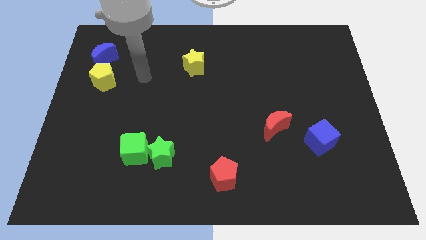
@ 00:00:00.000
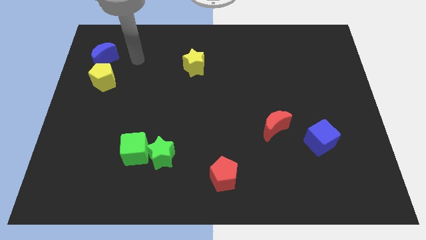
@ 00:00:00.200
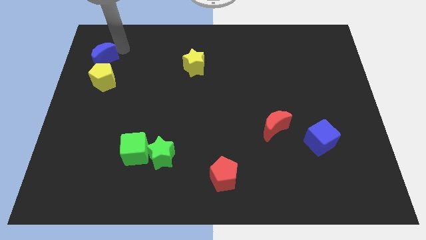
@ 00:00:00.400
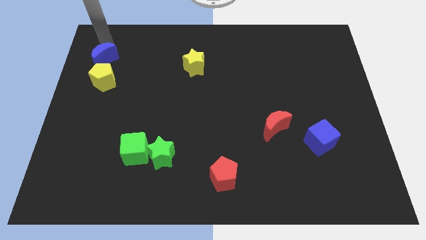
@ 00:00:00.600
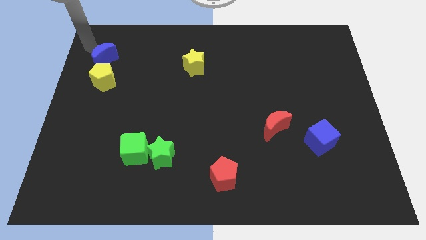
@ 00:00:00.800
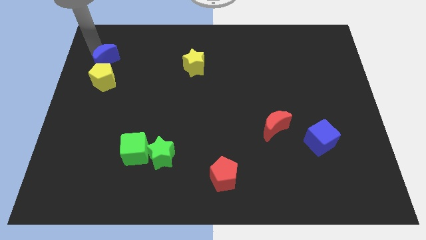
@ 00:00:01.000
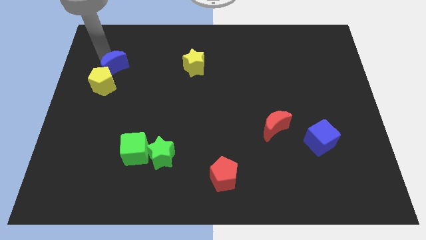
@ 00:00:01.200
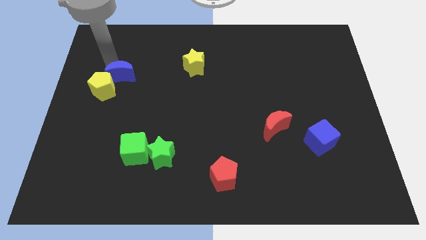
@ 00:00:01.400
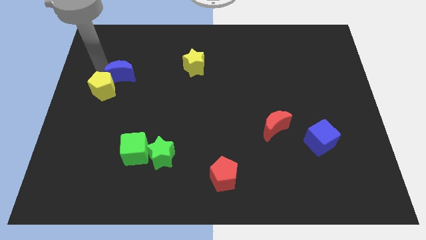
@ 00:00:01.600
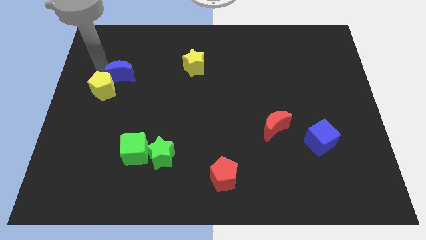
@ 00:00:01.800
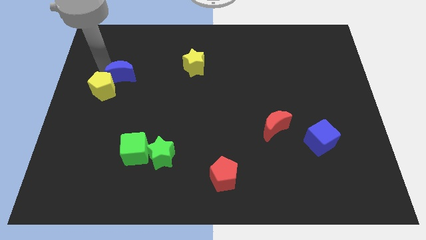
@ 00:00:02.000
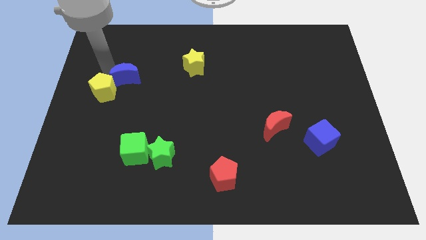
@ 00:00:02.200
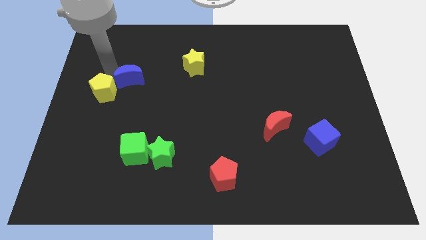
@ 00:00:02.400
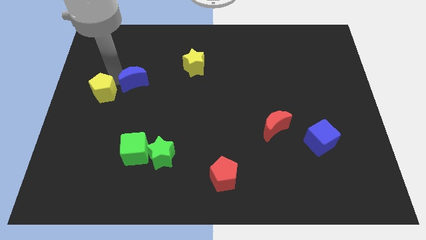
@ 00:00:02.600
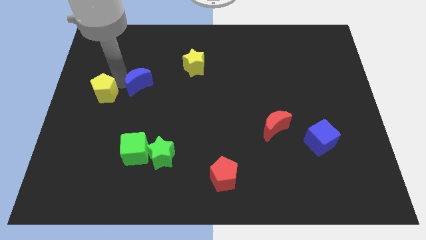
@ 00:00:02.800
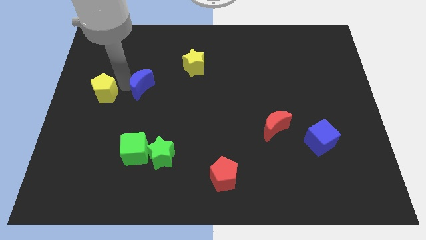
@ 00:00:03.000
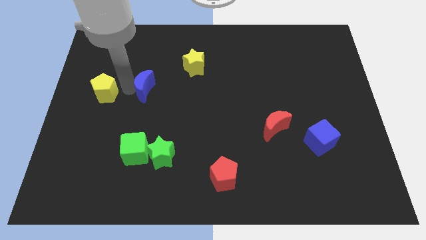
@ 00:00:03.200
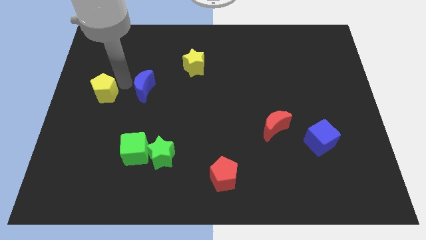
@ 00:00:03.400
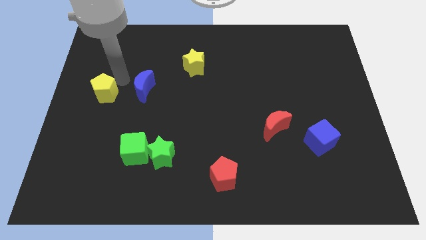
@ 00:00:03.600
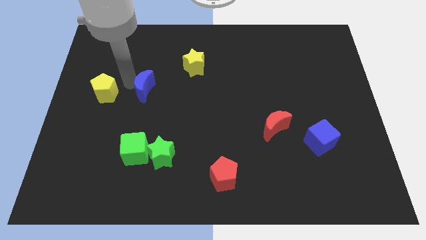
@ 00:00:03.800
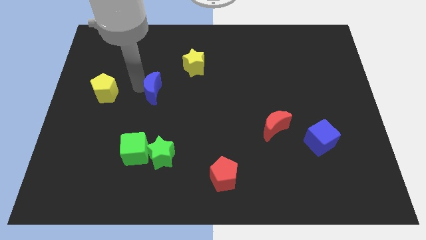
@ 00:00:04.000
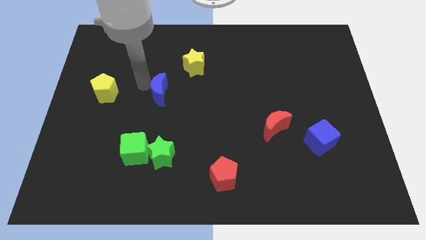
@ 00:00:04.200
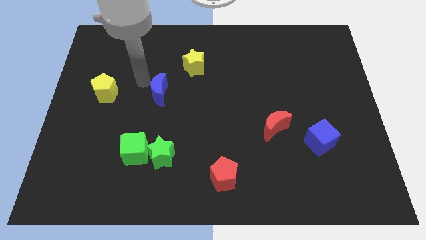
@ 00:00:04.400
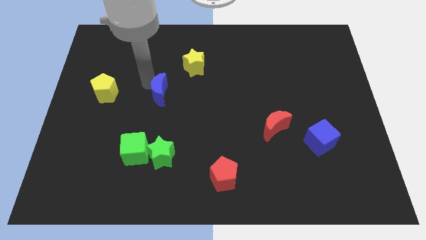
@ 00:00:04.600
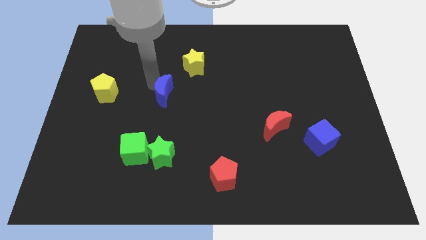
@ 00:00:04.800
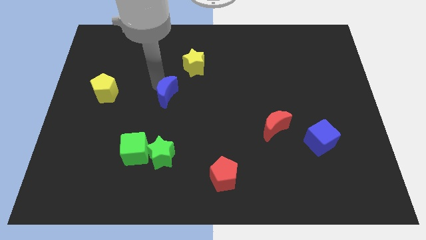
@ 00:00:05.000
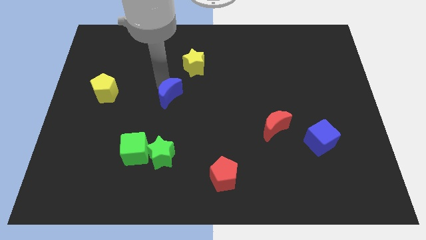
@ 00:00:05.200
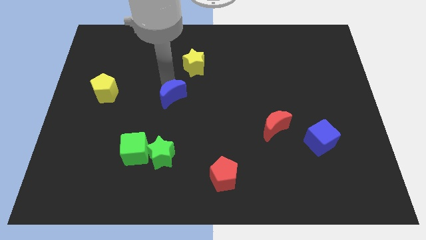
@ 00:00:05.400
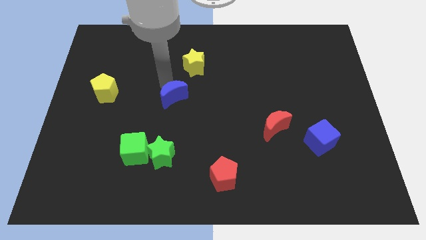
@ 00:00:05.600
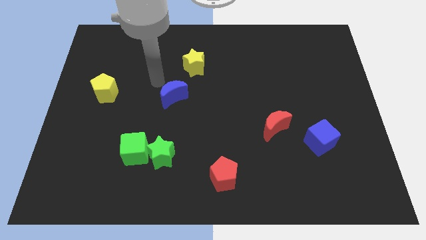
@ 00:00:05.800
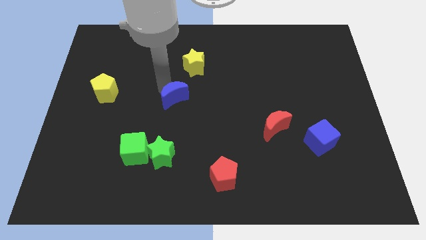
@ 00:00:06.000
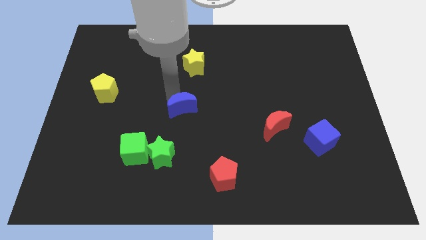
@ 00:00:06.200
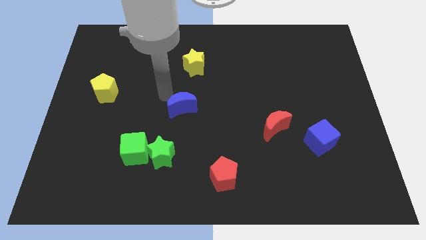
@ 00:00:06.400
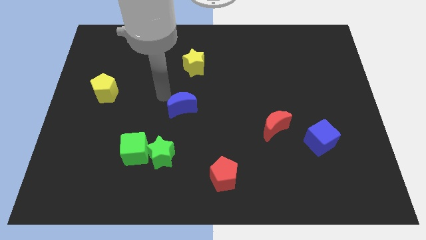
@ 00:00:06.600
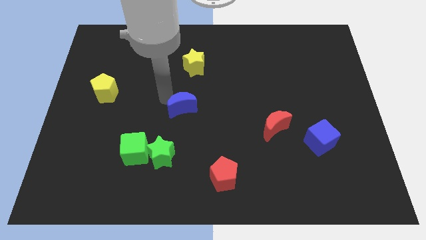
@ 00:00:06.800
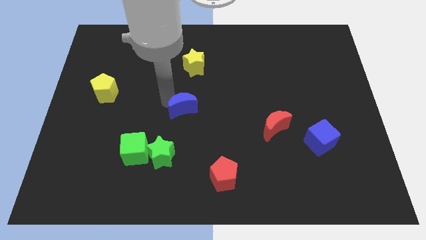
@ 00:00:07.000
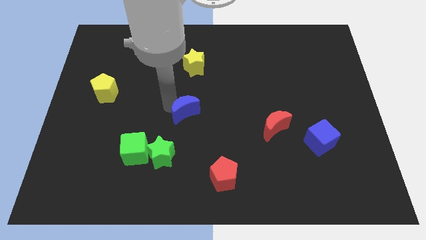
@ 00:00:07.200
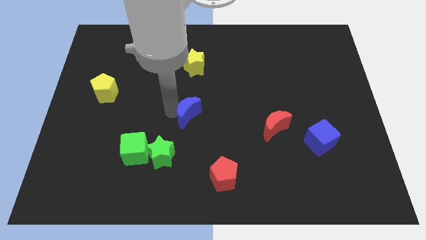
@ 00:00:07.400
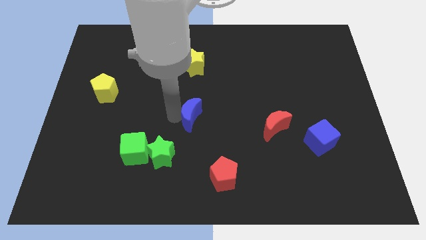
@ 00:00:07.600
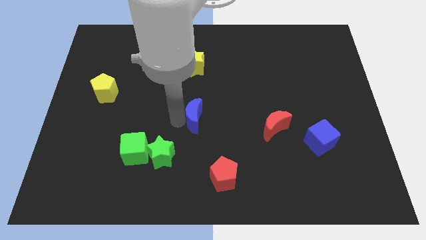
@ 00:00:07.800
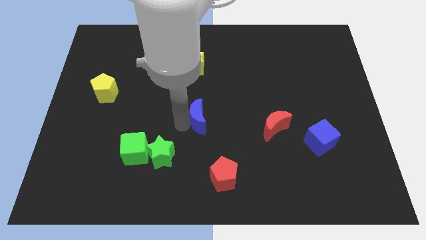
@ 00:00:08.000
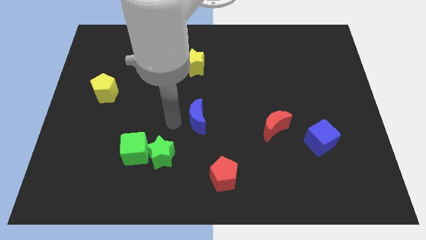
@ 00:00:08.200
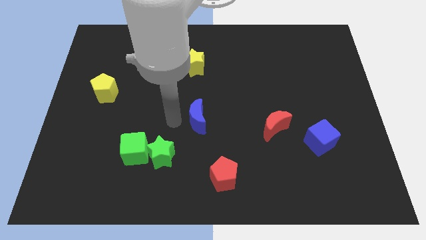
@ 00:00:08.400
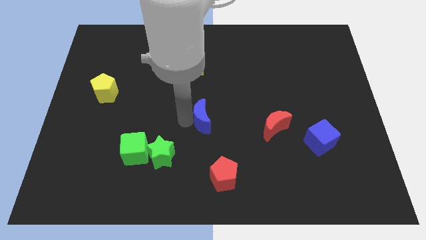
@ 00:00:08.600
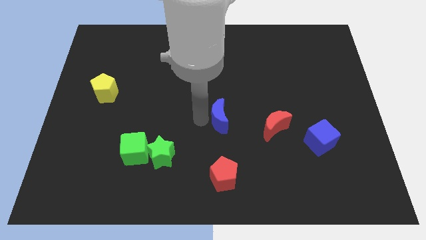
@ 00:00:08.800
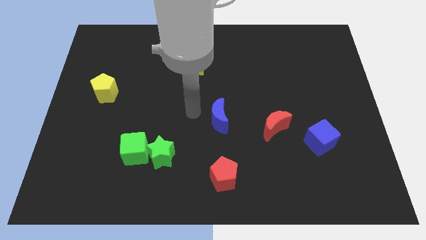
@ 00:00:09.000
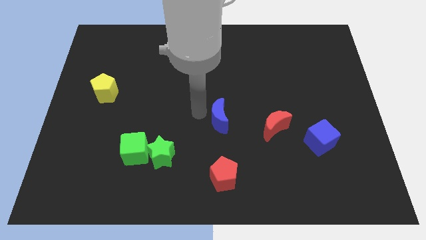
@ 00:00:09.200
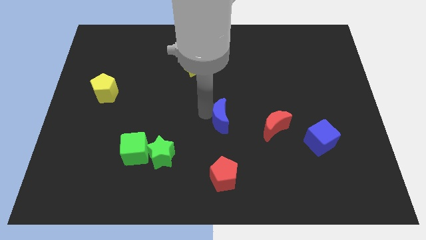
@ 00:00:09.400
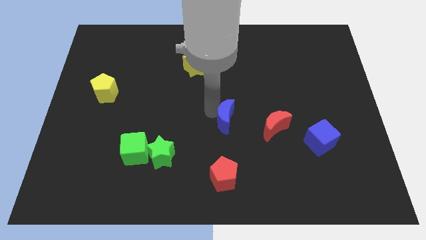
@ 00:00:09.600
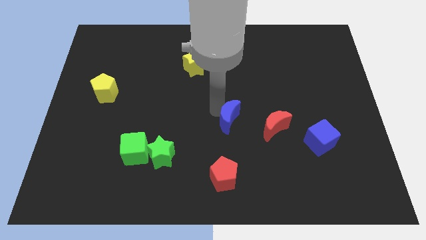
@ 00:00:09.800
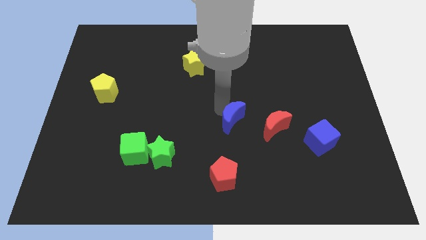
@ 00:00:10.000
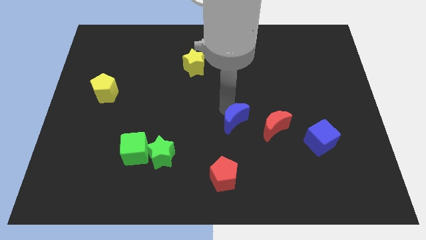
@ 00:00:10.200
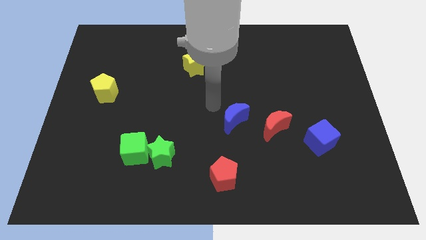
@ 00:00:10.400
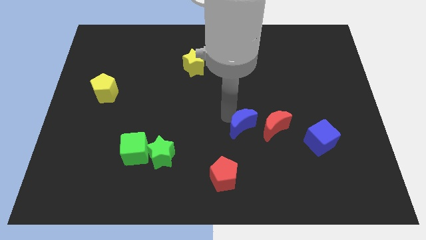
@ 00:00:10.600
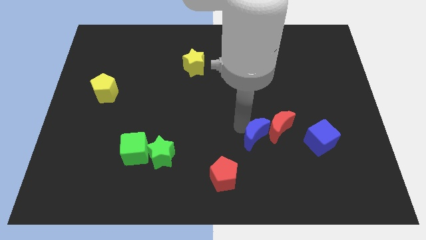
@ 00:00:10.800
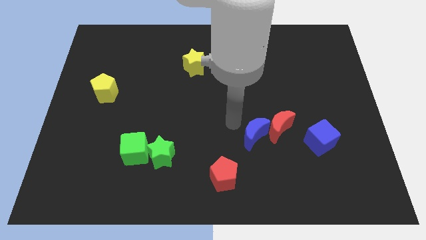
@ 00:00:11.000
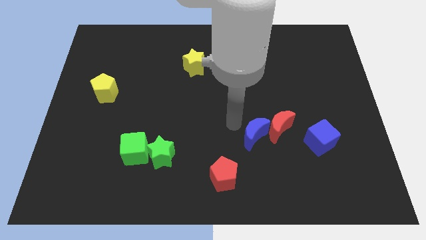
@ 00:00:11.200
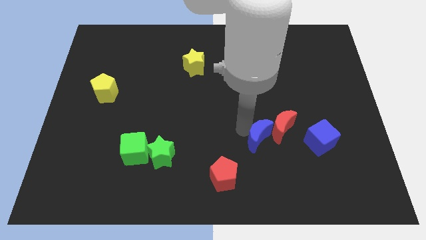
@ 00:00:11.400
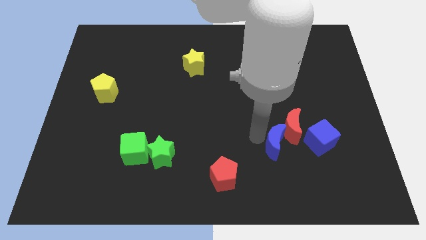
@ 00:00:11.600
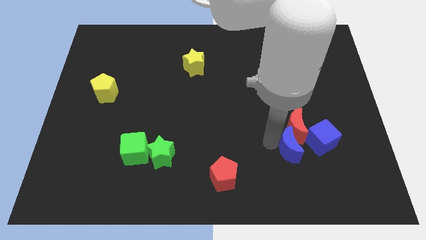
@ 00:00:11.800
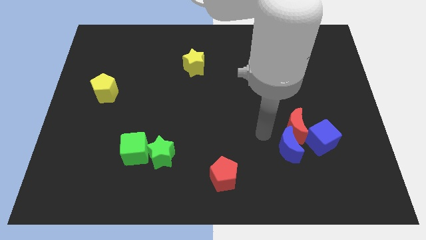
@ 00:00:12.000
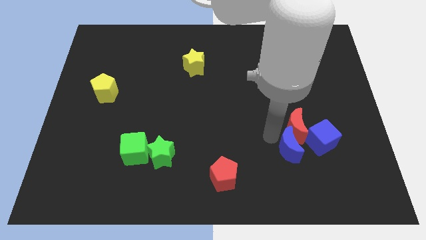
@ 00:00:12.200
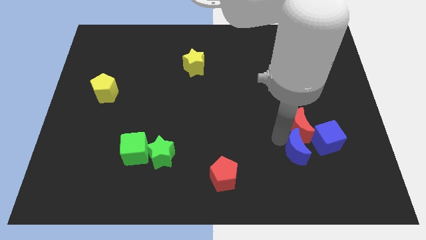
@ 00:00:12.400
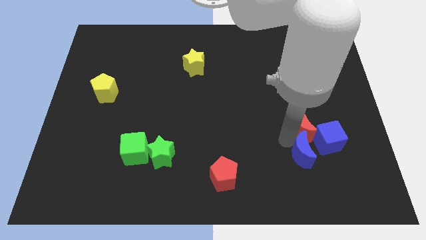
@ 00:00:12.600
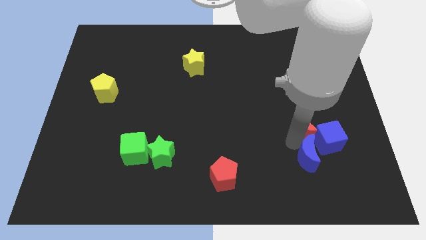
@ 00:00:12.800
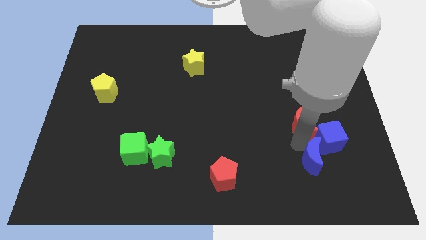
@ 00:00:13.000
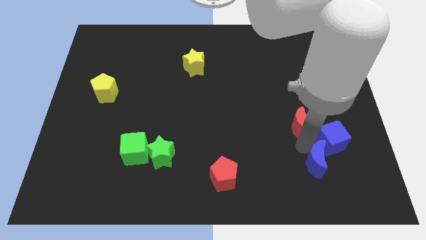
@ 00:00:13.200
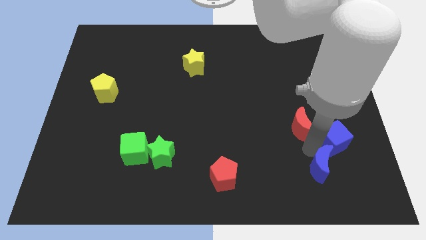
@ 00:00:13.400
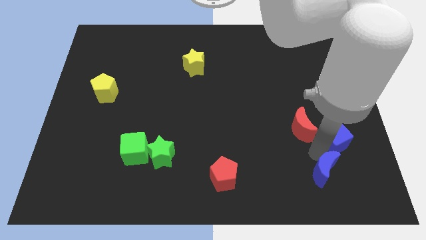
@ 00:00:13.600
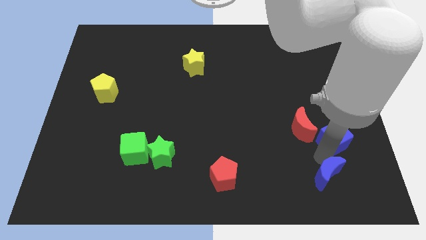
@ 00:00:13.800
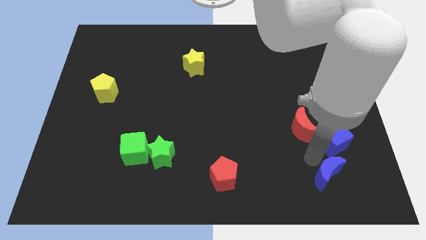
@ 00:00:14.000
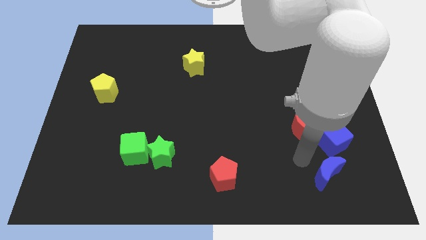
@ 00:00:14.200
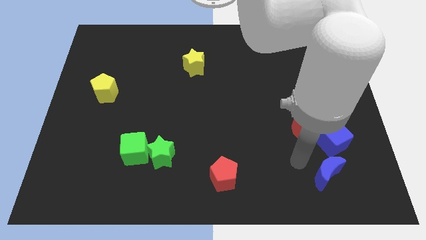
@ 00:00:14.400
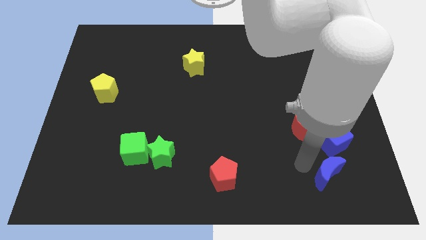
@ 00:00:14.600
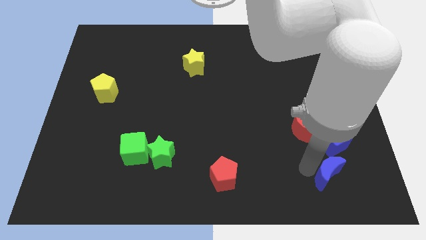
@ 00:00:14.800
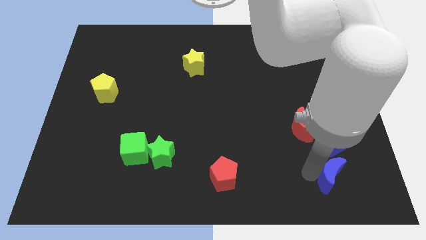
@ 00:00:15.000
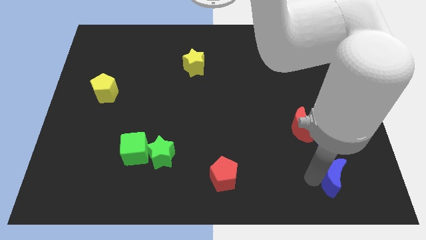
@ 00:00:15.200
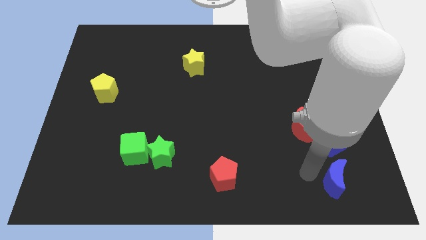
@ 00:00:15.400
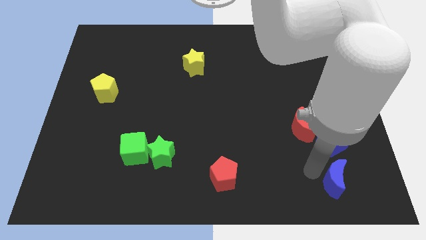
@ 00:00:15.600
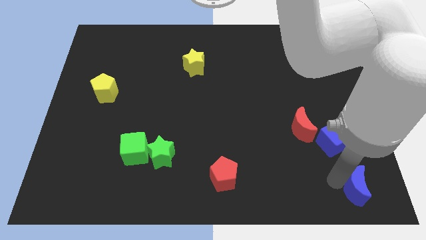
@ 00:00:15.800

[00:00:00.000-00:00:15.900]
move the blue moon to the bottom right corner
